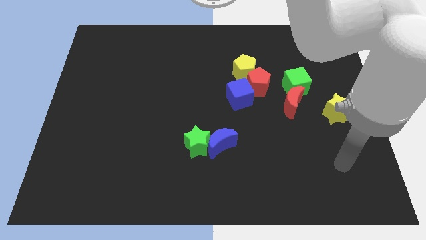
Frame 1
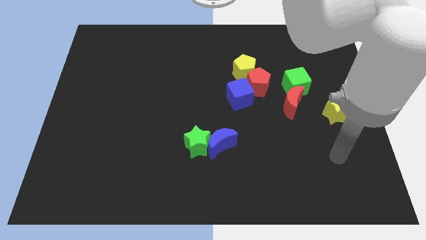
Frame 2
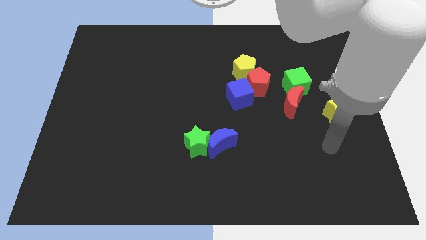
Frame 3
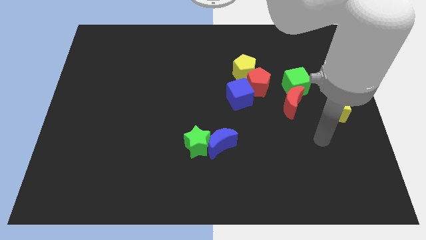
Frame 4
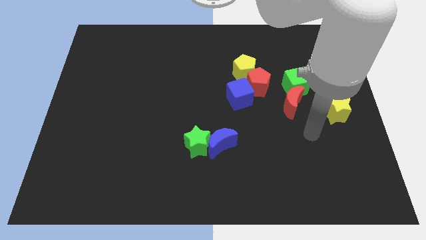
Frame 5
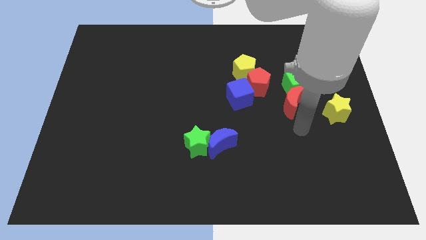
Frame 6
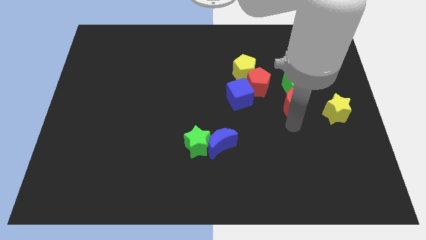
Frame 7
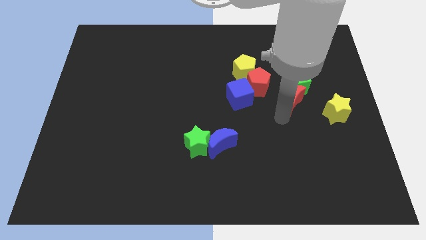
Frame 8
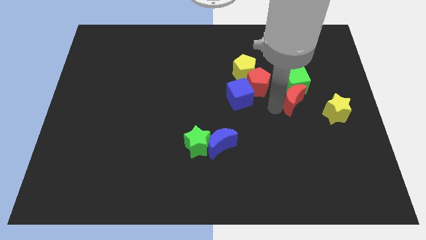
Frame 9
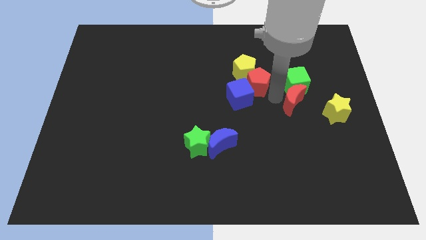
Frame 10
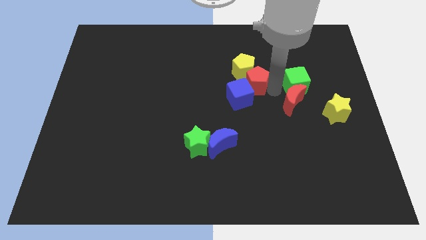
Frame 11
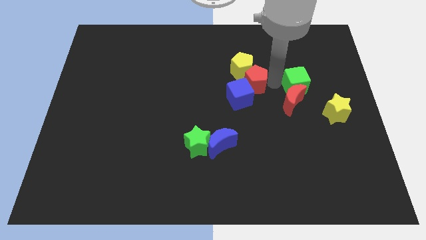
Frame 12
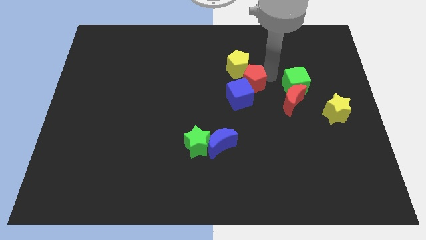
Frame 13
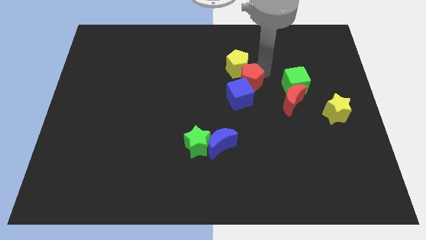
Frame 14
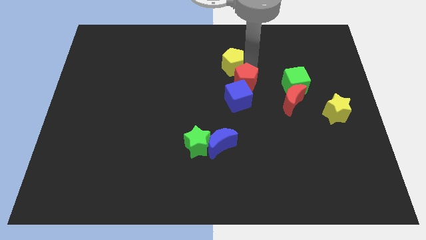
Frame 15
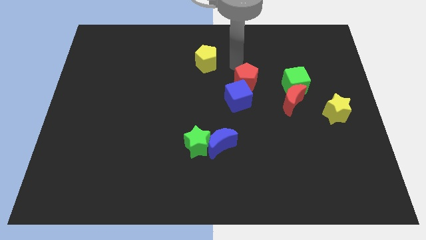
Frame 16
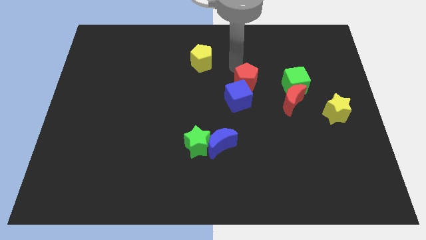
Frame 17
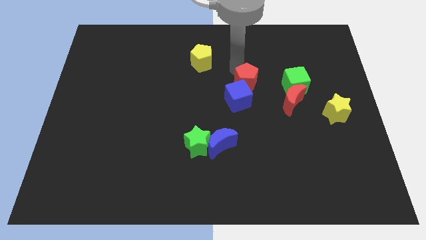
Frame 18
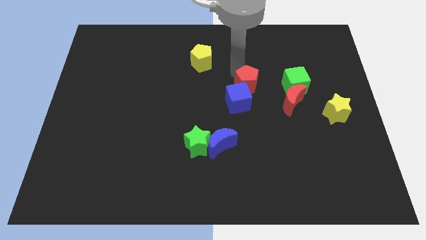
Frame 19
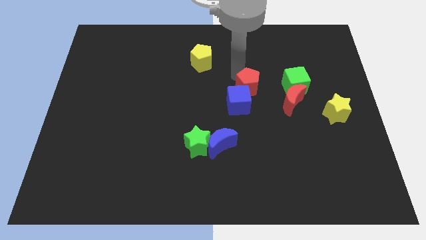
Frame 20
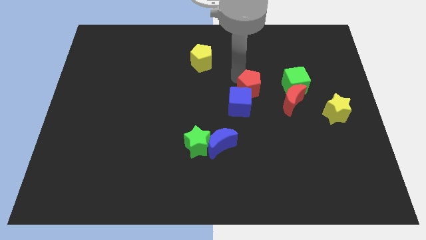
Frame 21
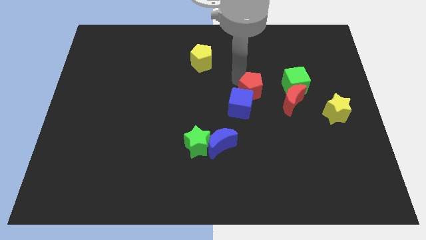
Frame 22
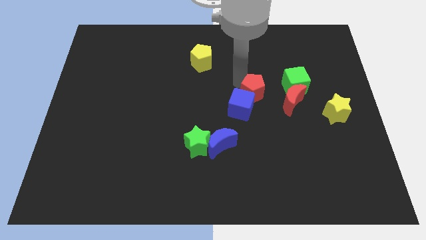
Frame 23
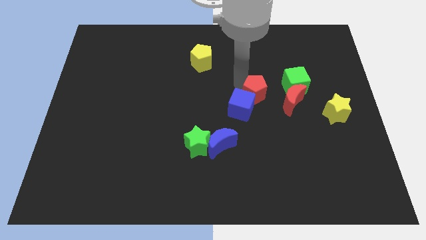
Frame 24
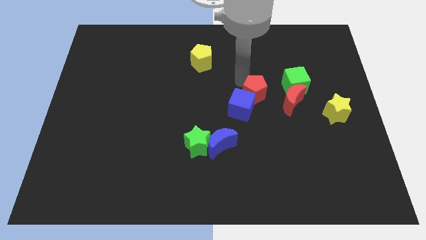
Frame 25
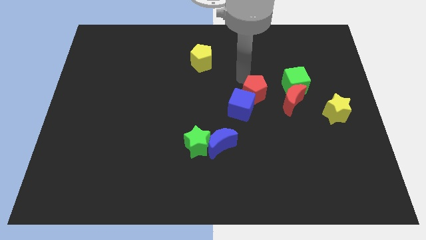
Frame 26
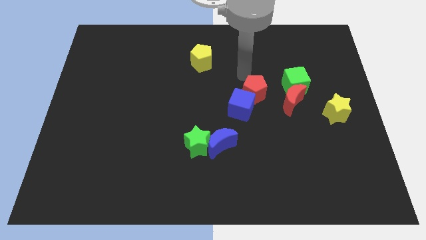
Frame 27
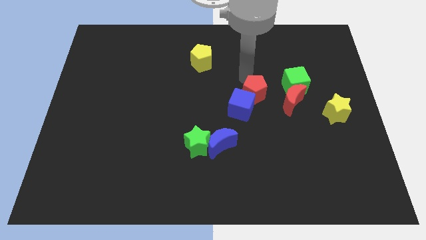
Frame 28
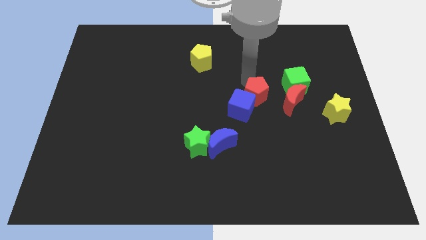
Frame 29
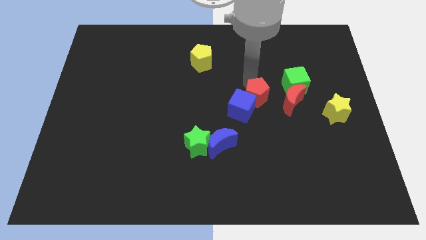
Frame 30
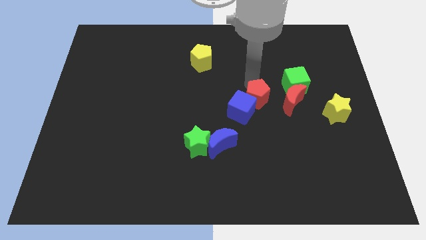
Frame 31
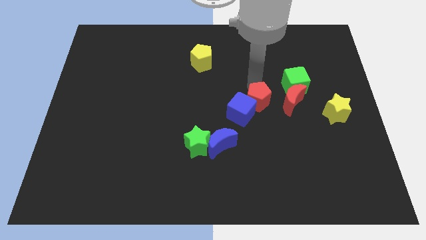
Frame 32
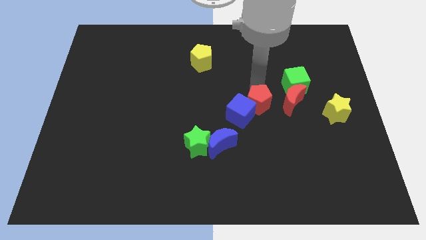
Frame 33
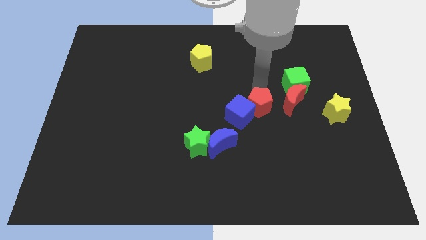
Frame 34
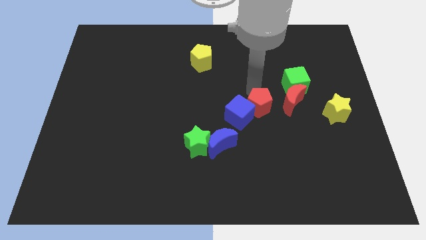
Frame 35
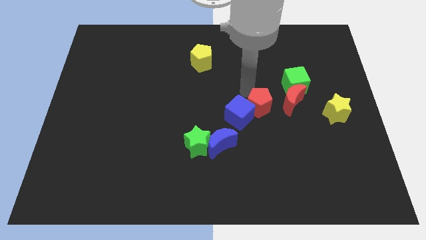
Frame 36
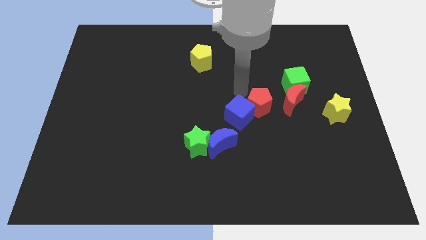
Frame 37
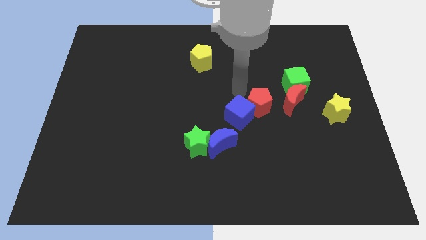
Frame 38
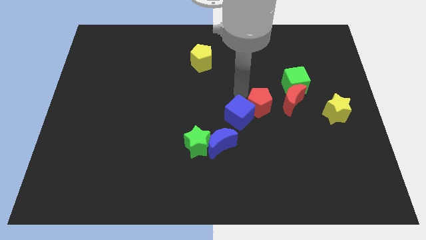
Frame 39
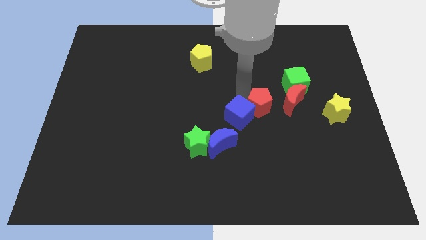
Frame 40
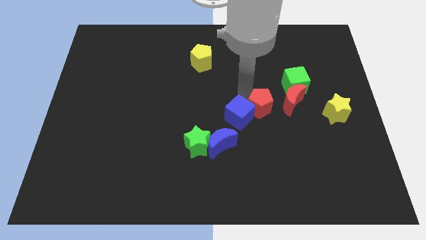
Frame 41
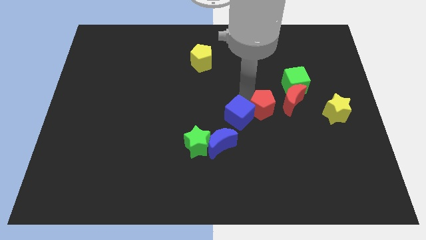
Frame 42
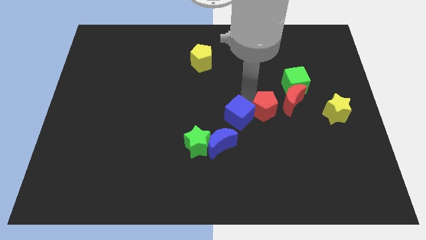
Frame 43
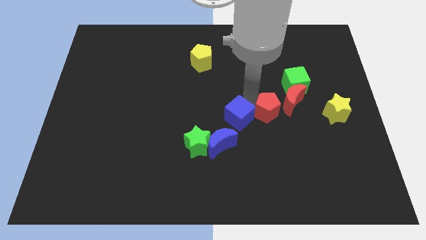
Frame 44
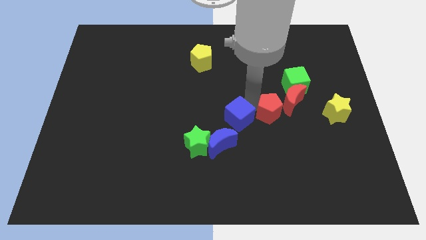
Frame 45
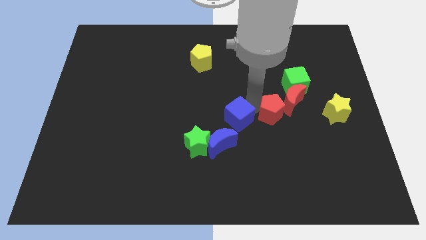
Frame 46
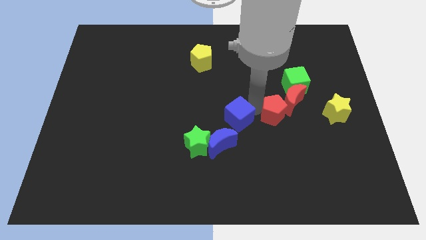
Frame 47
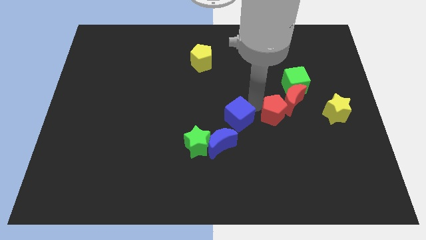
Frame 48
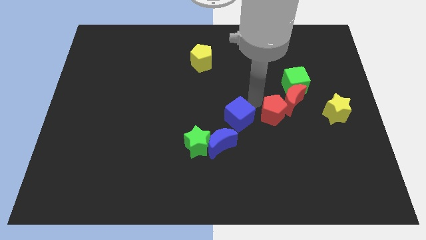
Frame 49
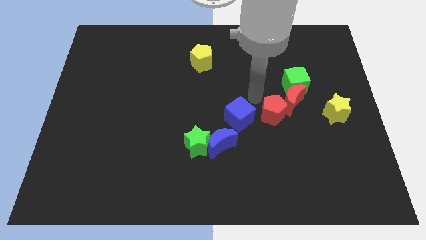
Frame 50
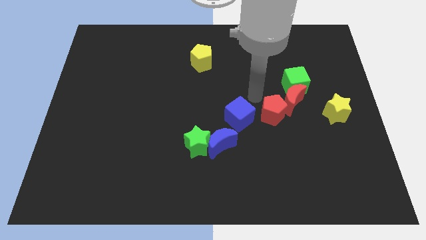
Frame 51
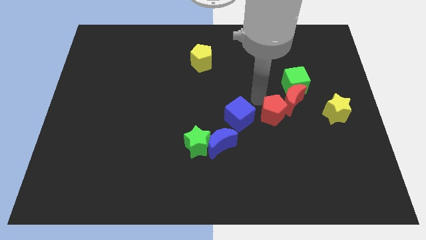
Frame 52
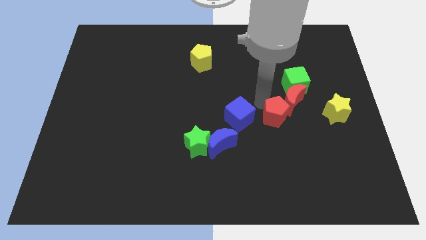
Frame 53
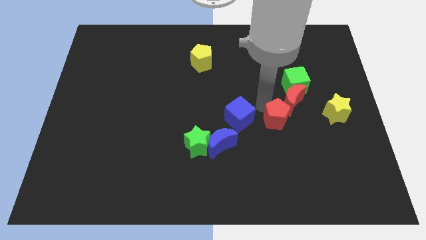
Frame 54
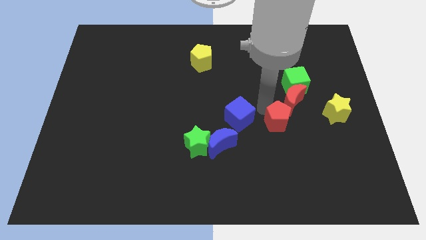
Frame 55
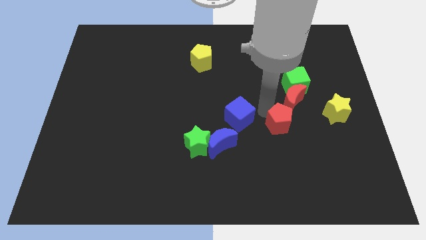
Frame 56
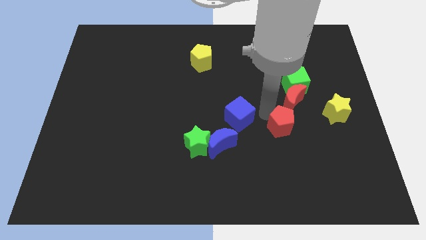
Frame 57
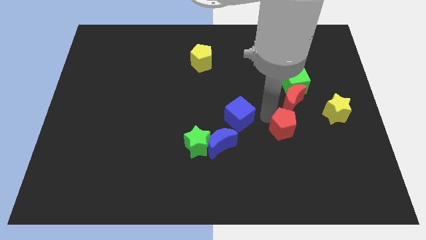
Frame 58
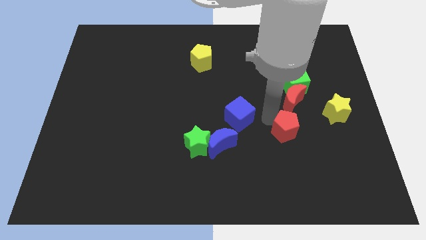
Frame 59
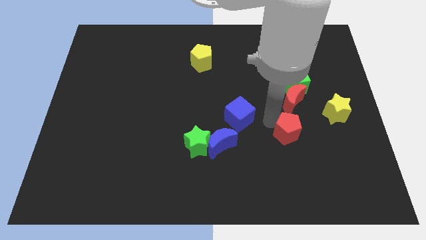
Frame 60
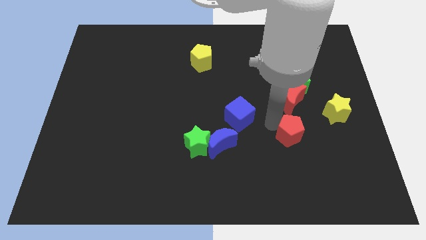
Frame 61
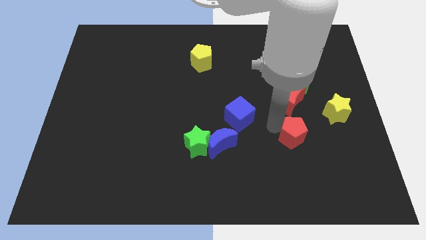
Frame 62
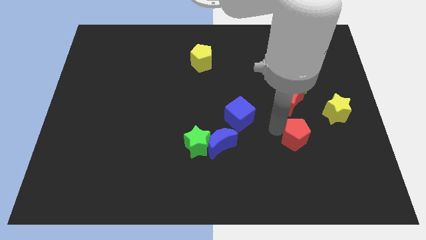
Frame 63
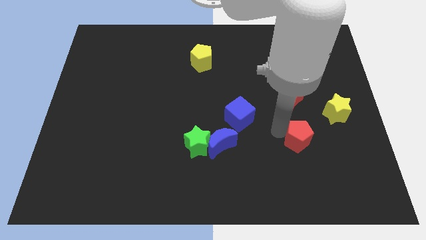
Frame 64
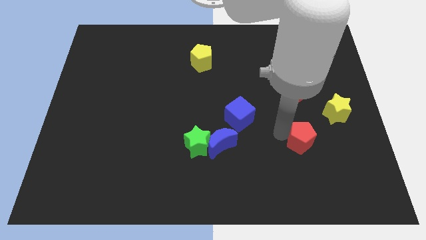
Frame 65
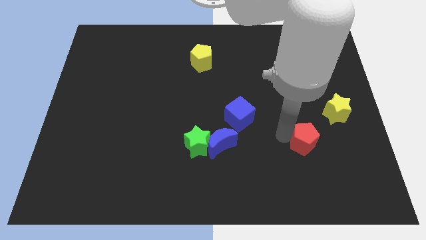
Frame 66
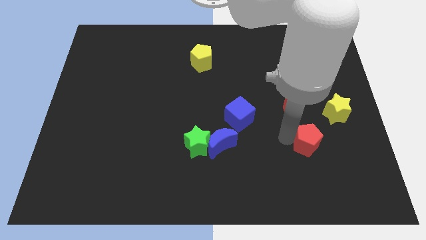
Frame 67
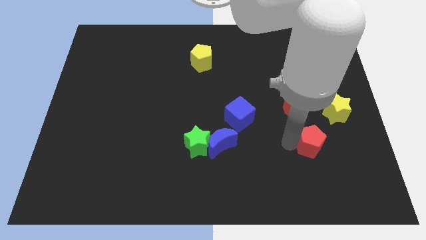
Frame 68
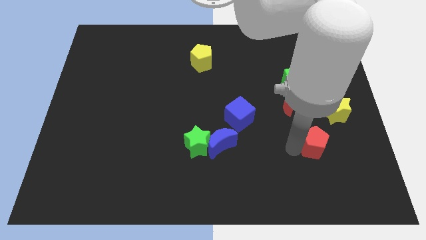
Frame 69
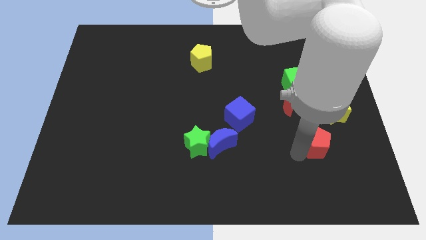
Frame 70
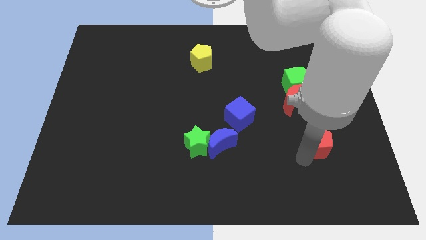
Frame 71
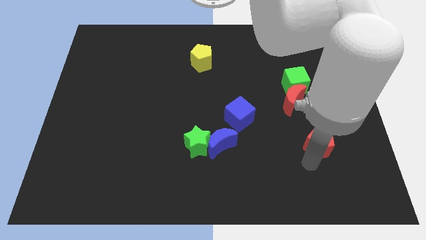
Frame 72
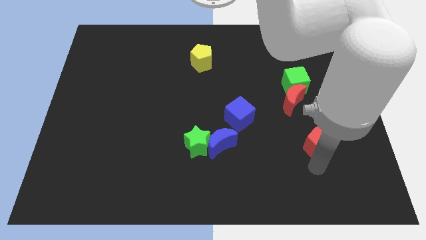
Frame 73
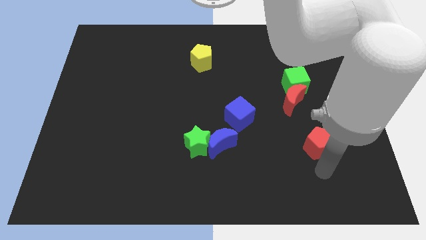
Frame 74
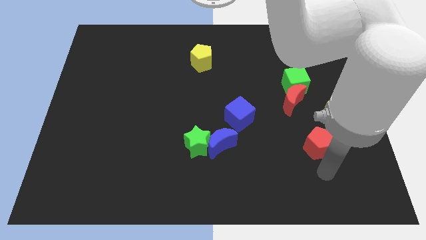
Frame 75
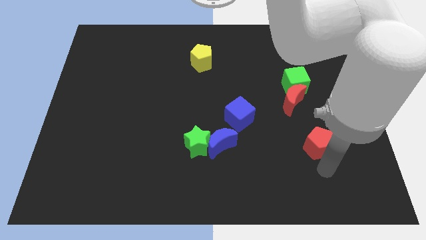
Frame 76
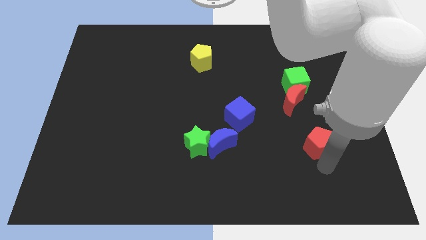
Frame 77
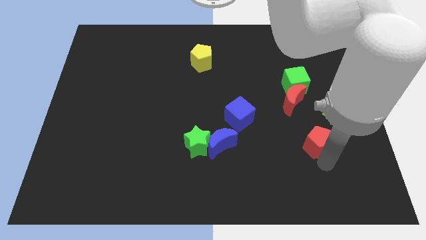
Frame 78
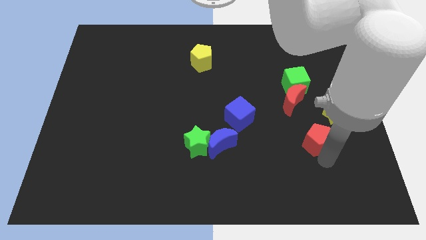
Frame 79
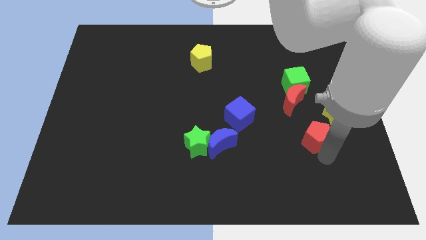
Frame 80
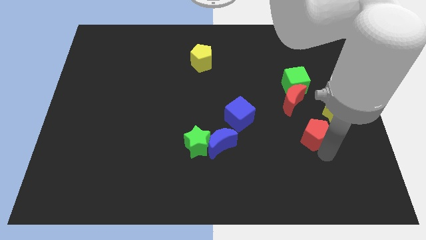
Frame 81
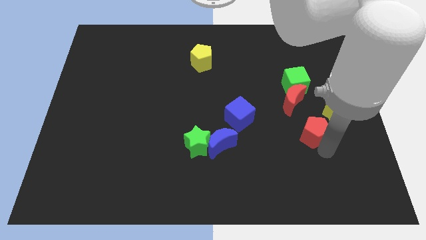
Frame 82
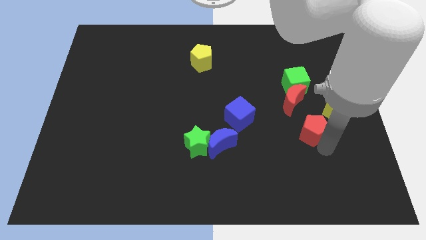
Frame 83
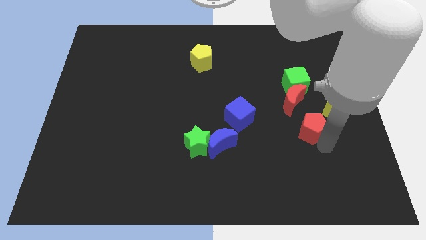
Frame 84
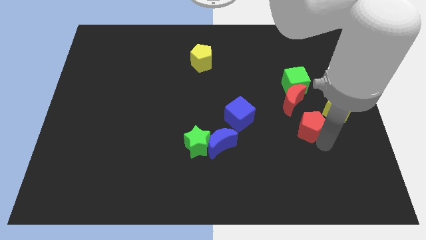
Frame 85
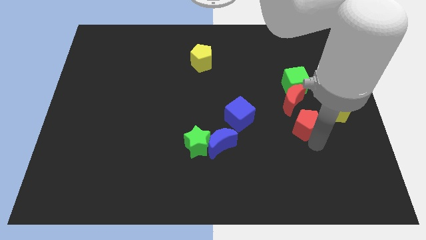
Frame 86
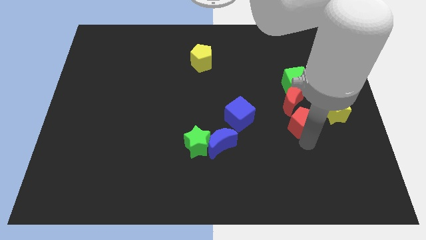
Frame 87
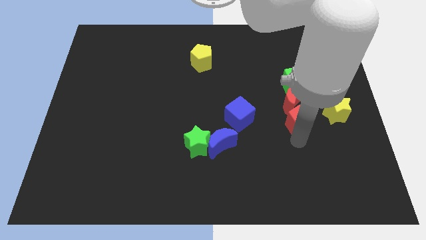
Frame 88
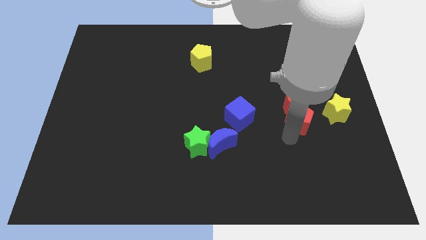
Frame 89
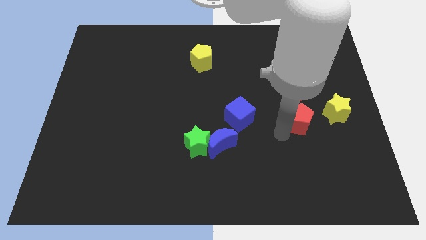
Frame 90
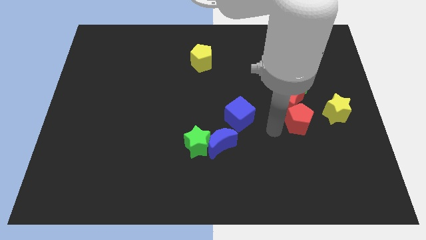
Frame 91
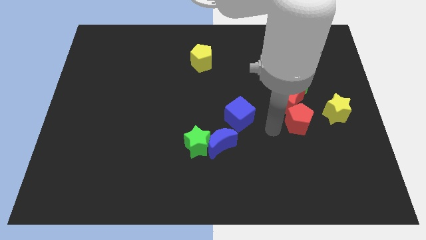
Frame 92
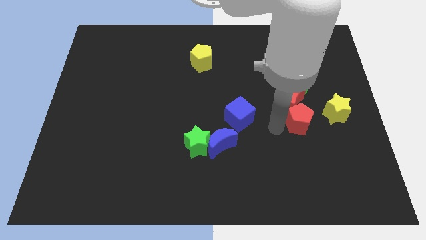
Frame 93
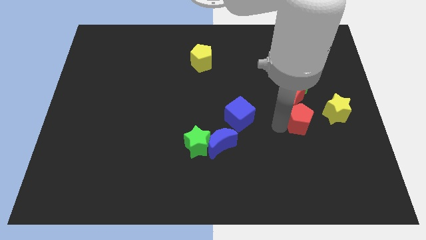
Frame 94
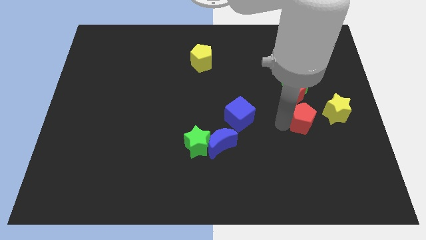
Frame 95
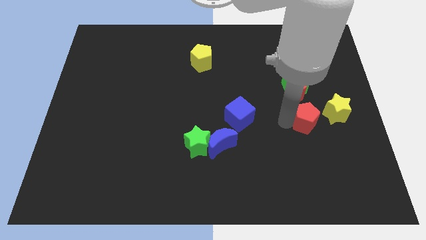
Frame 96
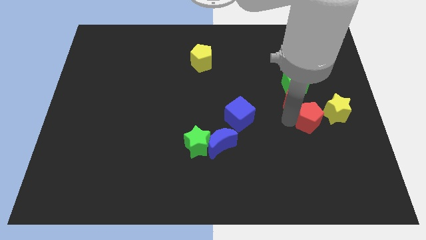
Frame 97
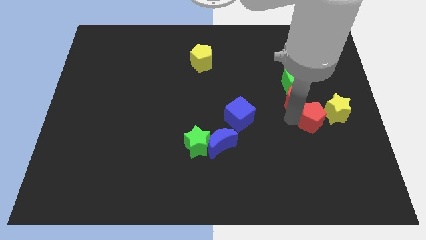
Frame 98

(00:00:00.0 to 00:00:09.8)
push the red pentagon to the yellow star
